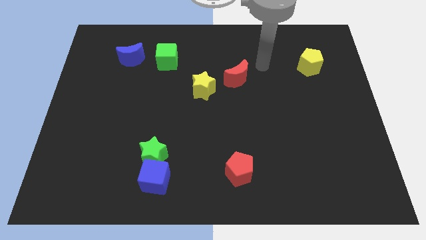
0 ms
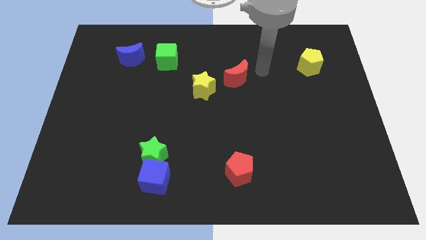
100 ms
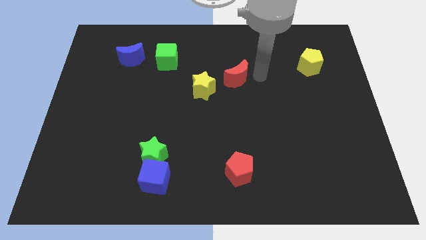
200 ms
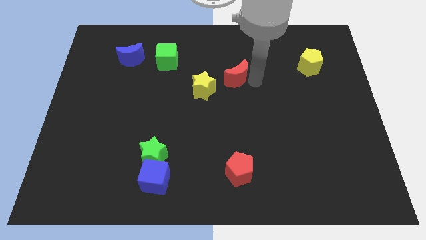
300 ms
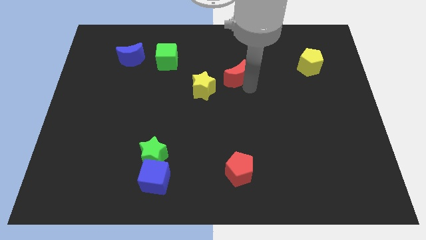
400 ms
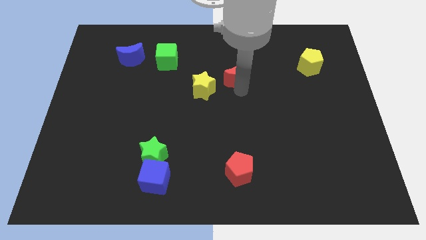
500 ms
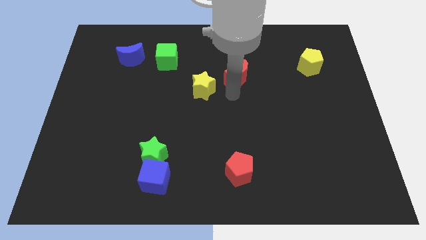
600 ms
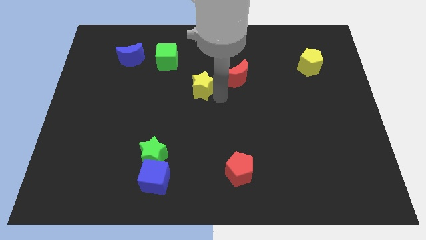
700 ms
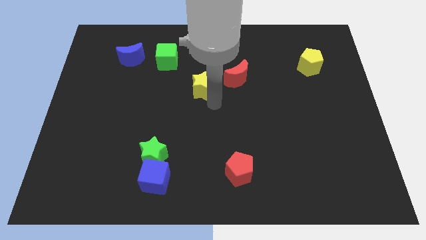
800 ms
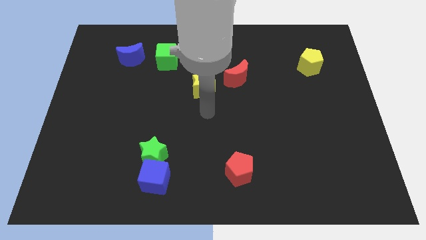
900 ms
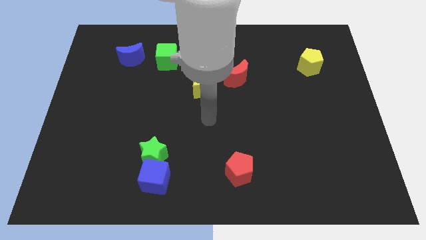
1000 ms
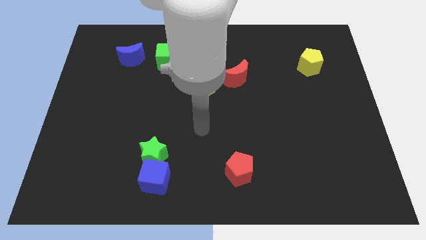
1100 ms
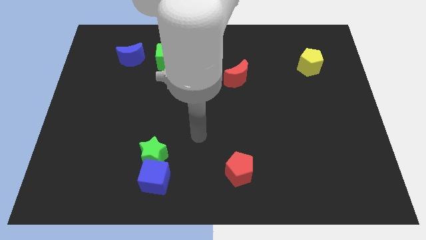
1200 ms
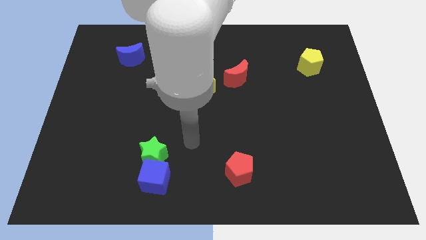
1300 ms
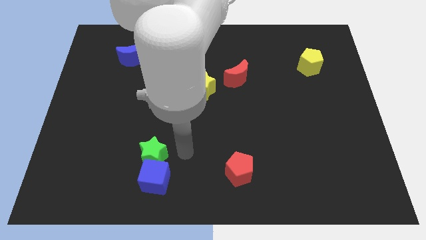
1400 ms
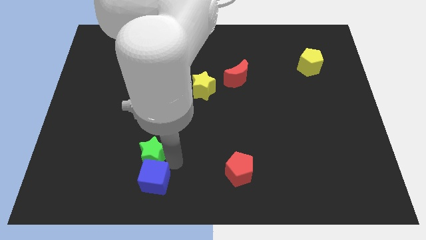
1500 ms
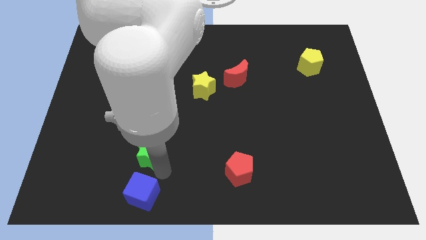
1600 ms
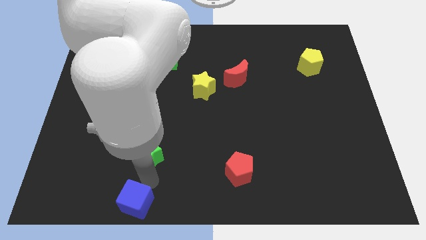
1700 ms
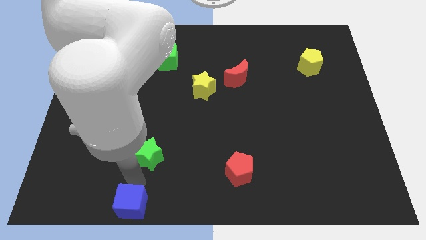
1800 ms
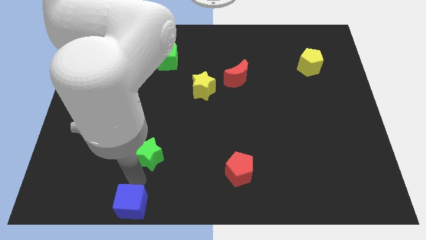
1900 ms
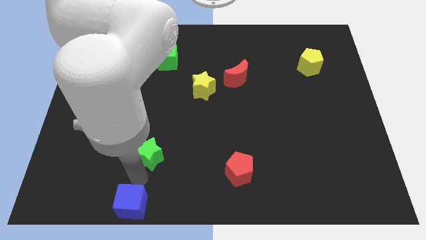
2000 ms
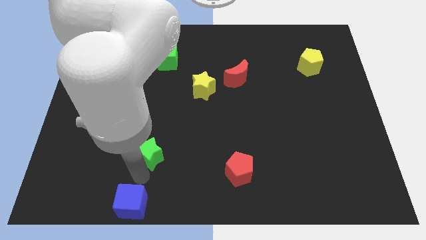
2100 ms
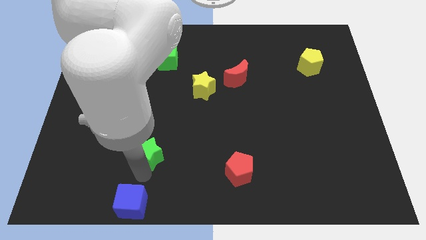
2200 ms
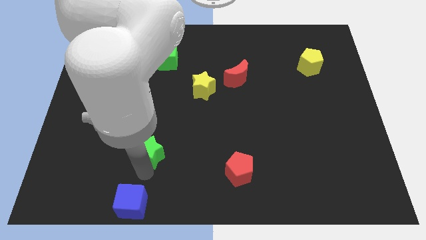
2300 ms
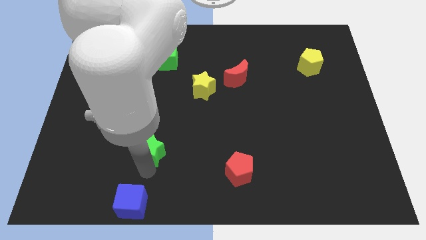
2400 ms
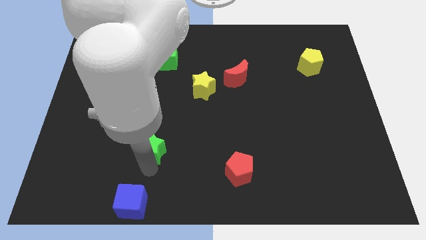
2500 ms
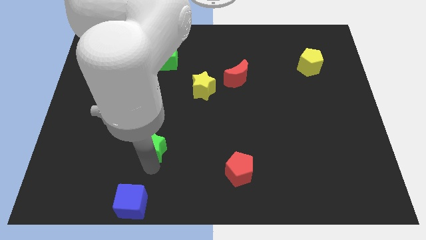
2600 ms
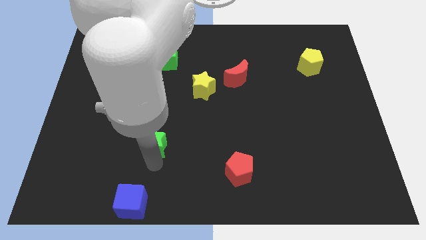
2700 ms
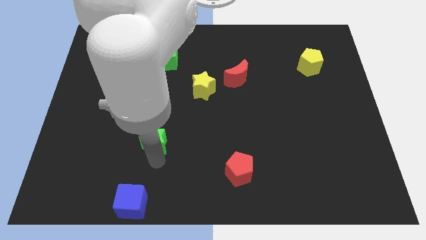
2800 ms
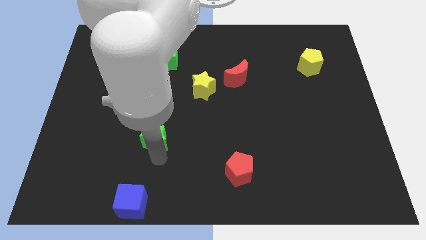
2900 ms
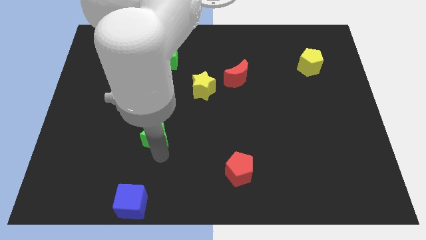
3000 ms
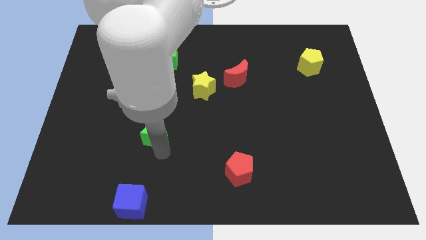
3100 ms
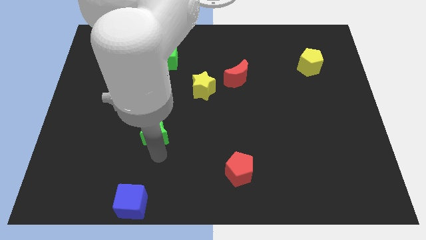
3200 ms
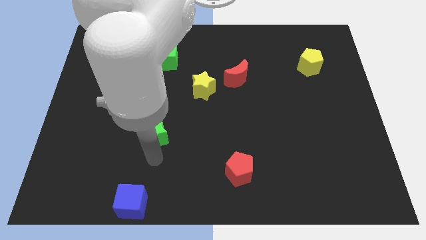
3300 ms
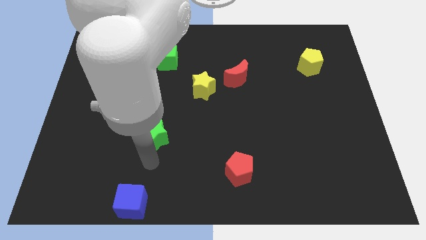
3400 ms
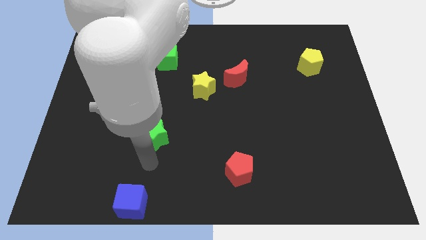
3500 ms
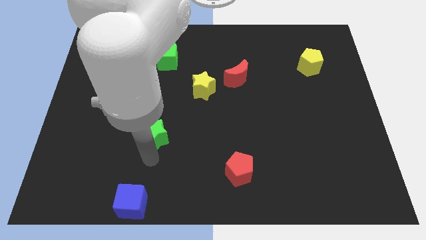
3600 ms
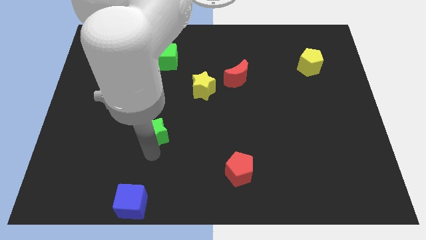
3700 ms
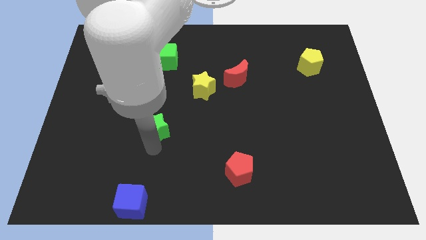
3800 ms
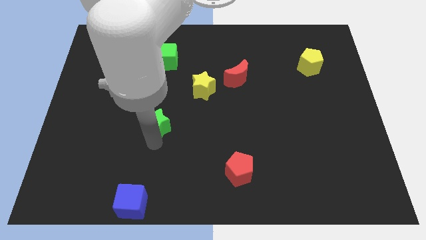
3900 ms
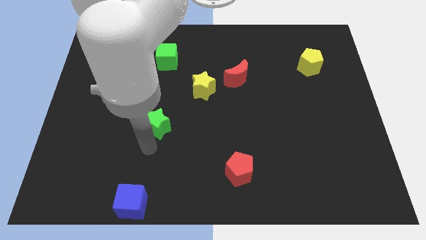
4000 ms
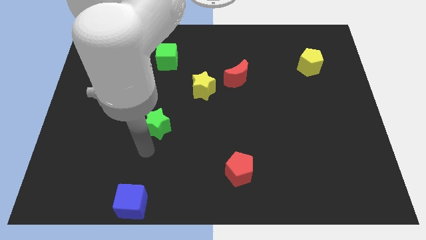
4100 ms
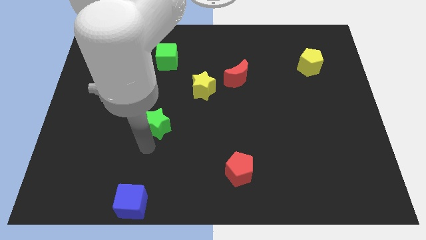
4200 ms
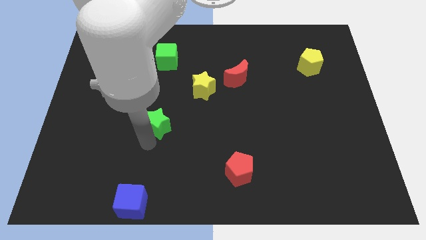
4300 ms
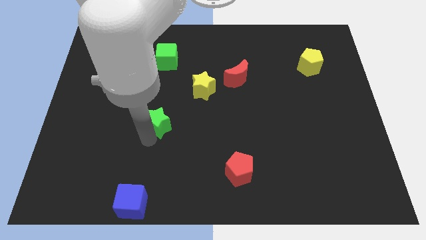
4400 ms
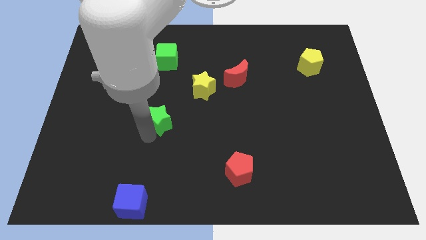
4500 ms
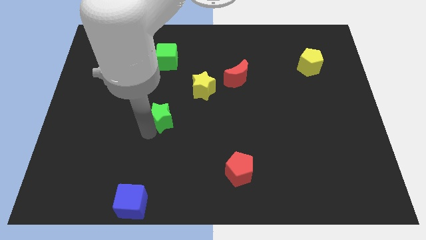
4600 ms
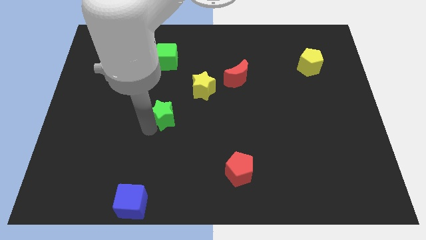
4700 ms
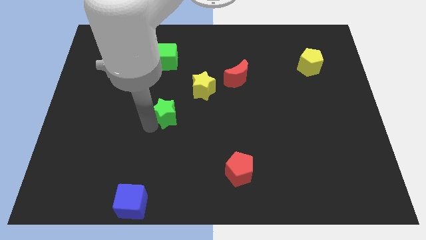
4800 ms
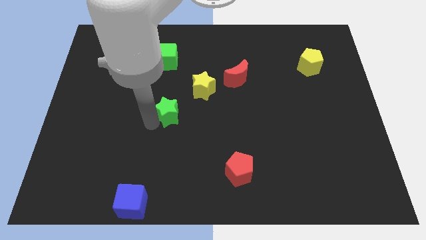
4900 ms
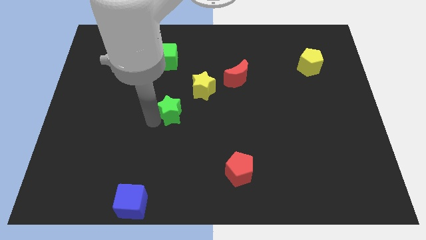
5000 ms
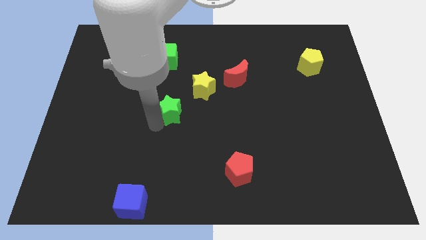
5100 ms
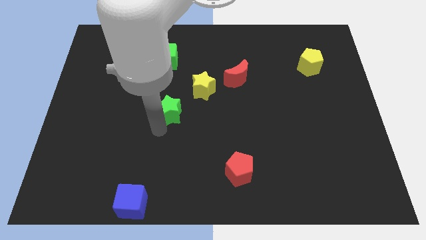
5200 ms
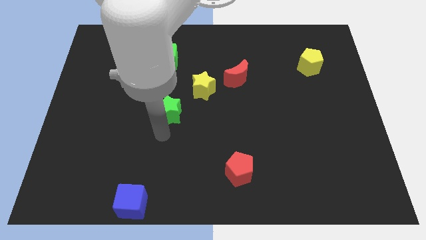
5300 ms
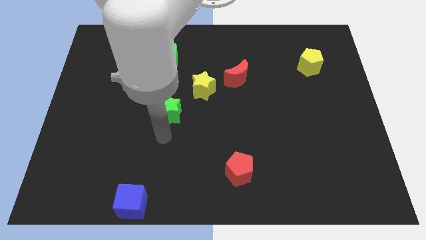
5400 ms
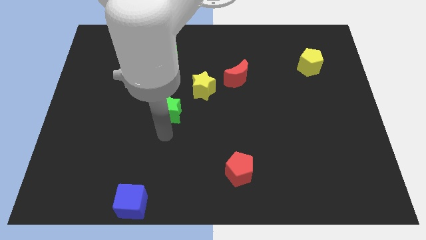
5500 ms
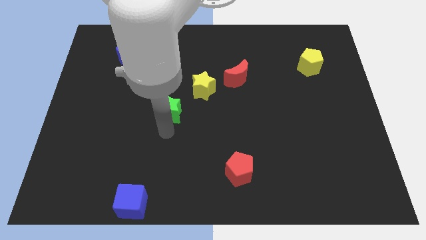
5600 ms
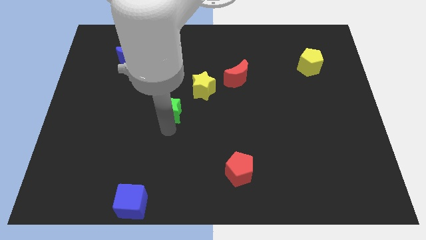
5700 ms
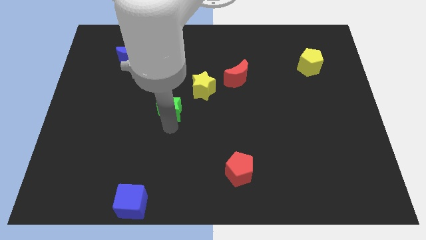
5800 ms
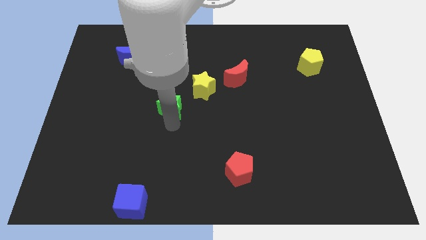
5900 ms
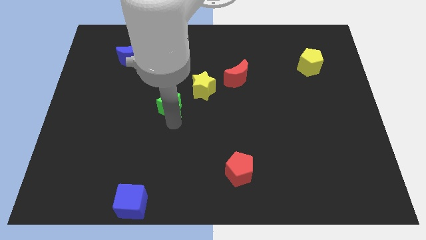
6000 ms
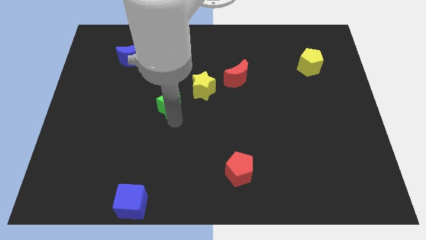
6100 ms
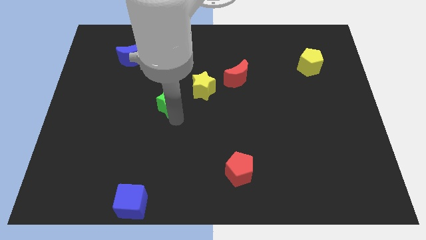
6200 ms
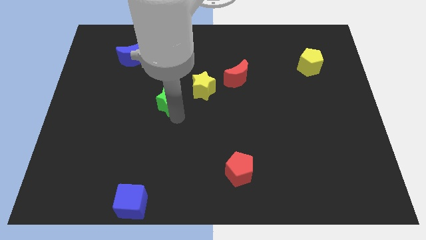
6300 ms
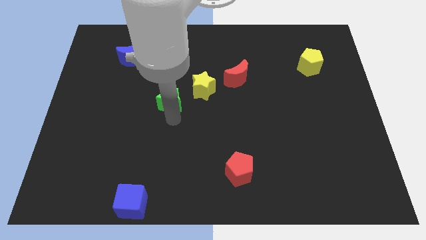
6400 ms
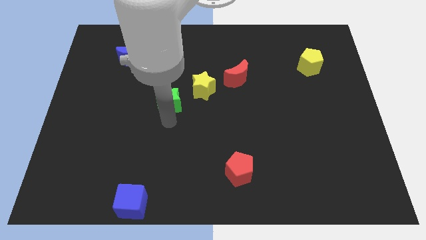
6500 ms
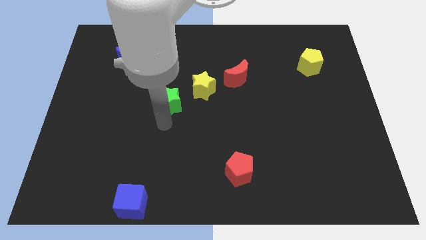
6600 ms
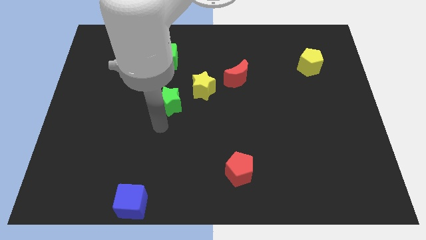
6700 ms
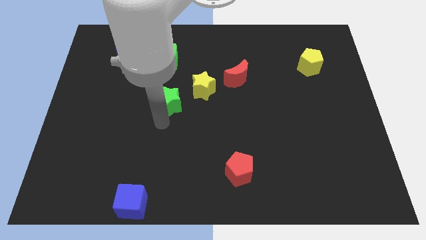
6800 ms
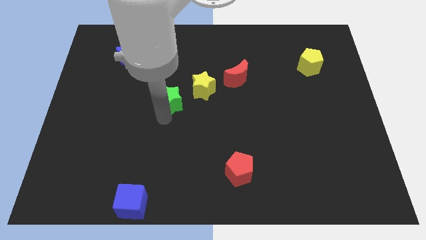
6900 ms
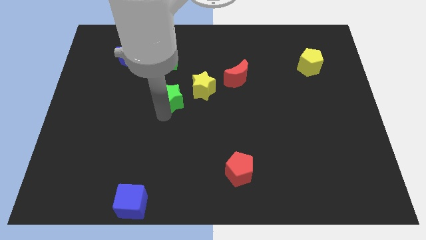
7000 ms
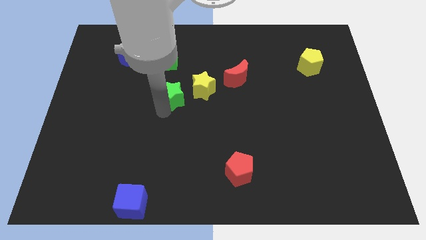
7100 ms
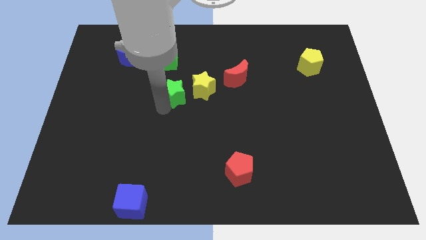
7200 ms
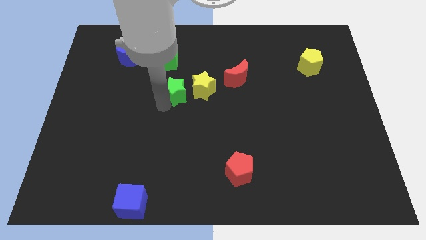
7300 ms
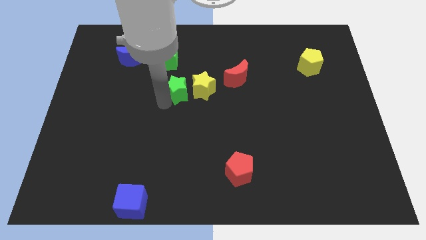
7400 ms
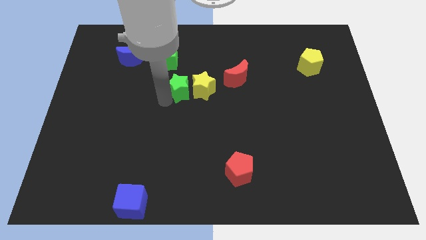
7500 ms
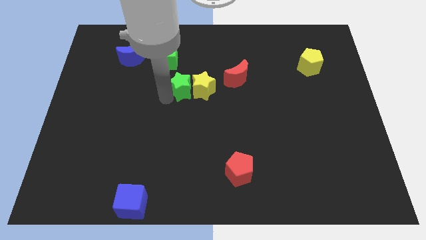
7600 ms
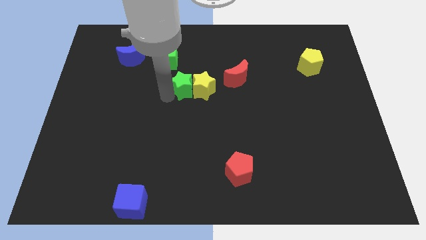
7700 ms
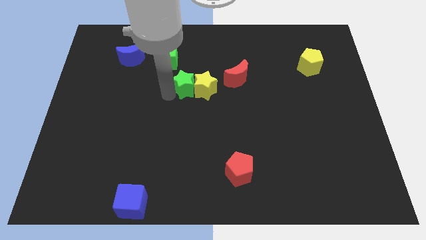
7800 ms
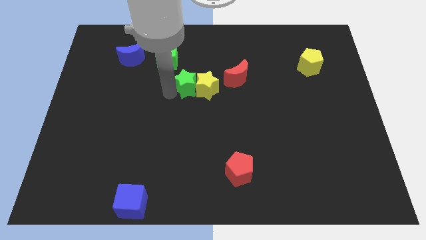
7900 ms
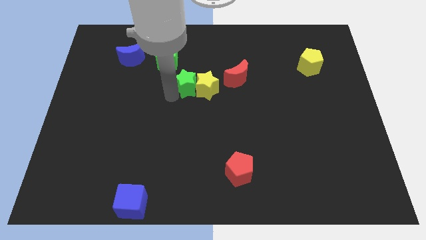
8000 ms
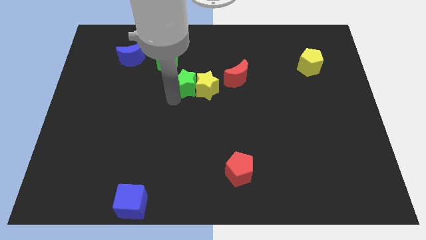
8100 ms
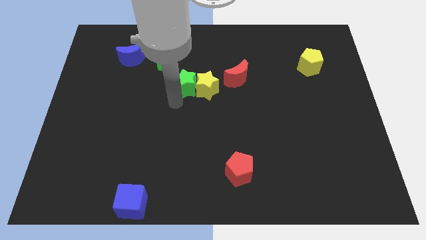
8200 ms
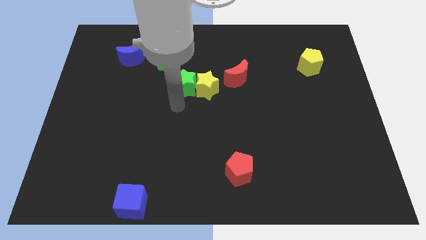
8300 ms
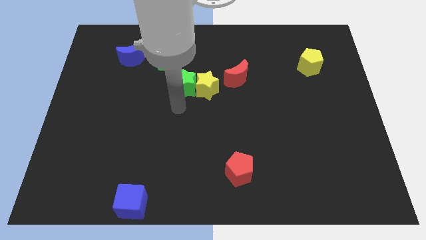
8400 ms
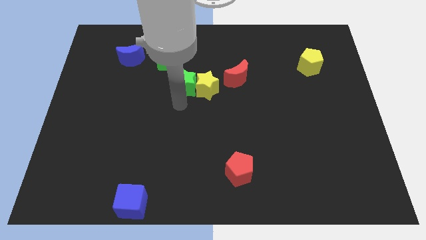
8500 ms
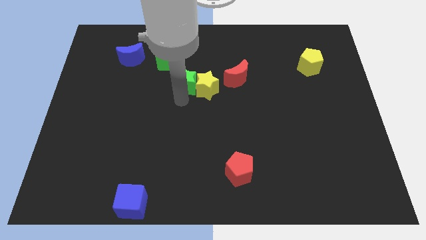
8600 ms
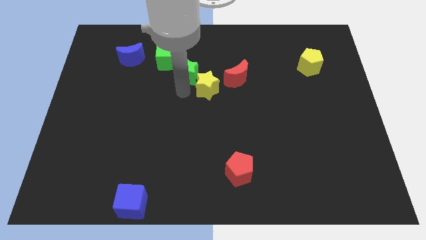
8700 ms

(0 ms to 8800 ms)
put the green star above the yellow star
